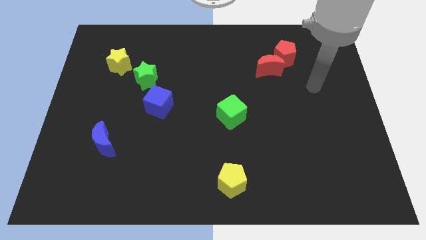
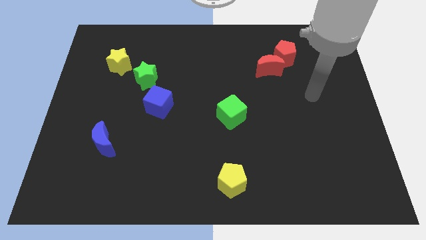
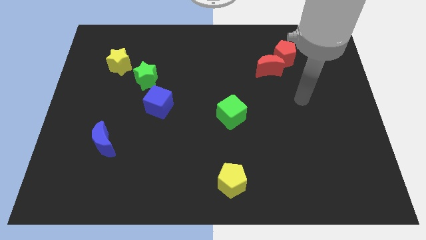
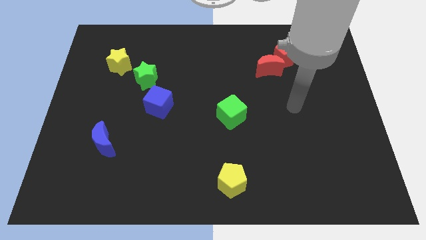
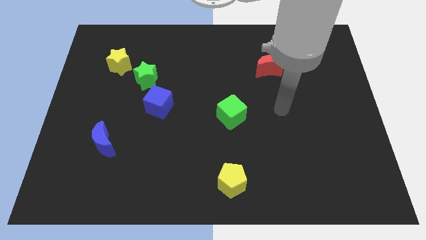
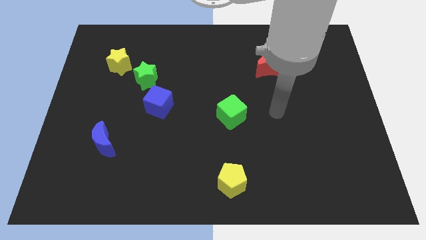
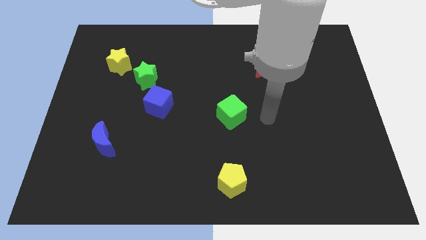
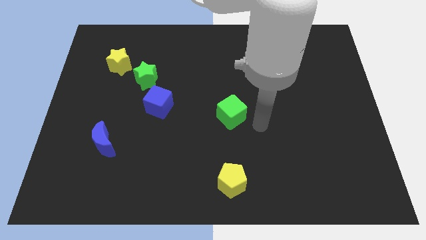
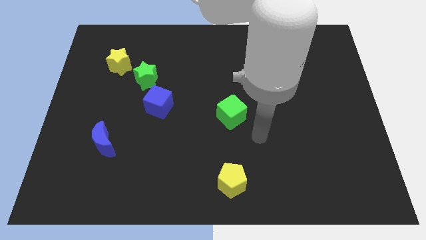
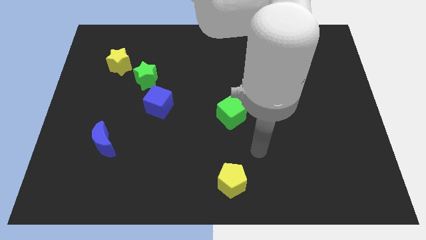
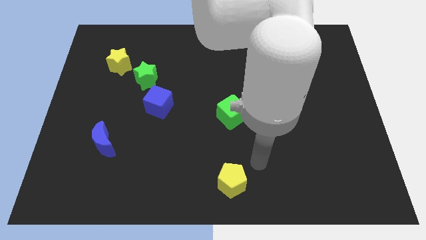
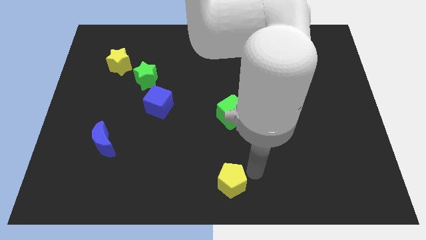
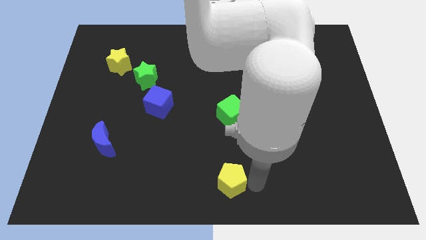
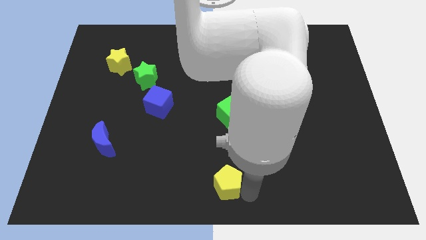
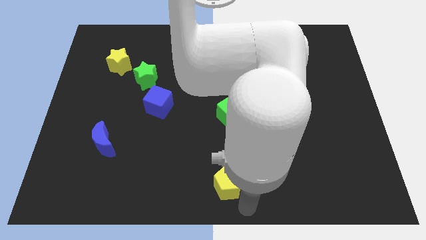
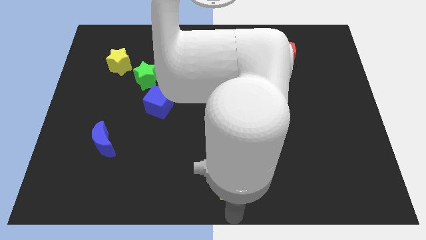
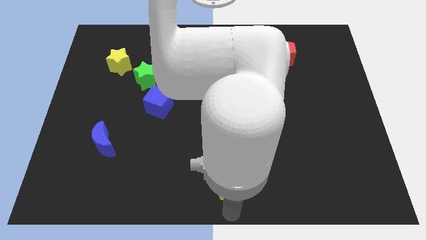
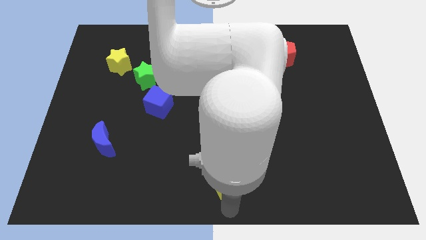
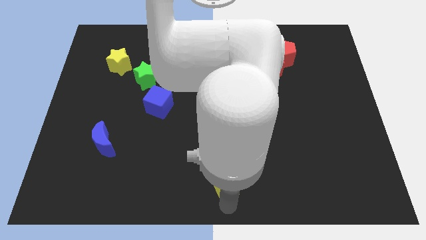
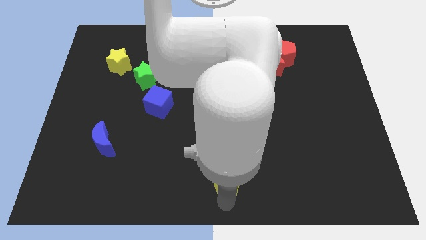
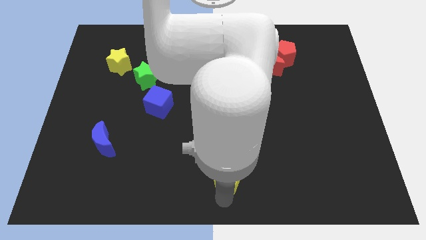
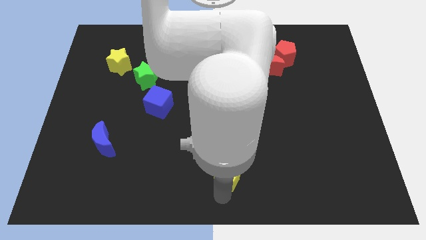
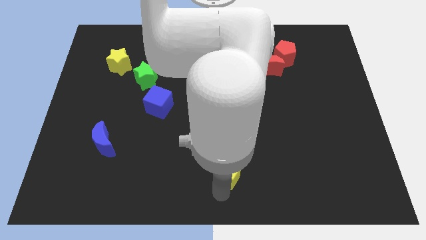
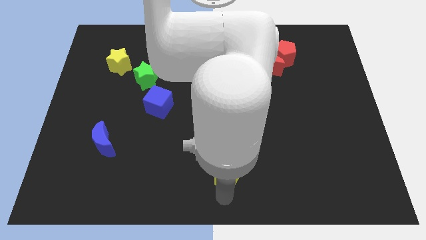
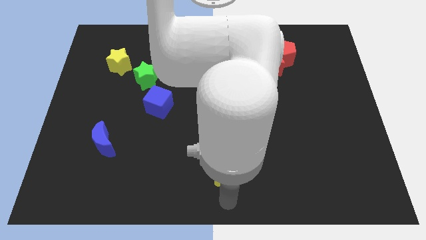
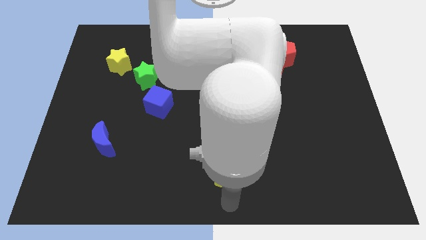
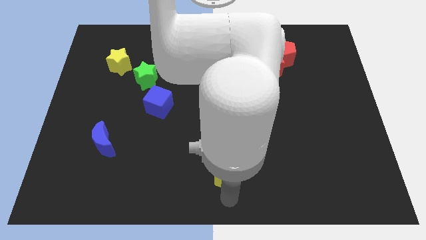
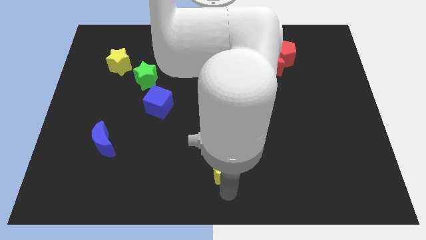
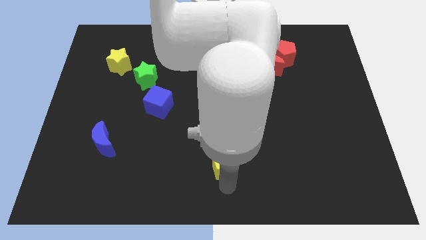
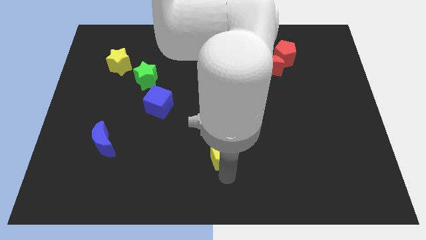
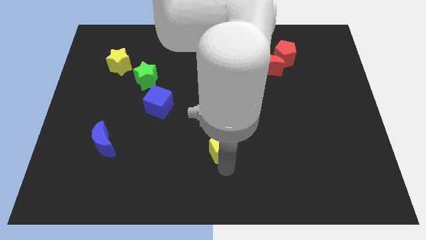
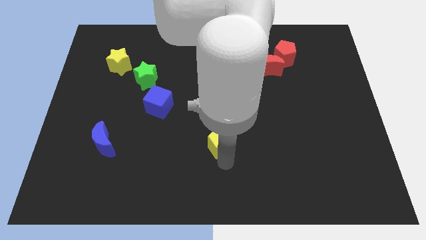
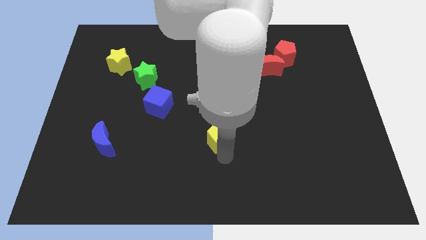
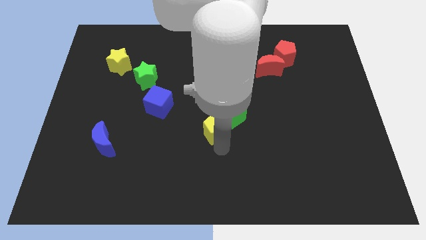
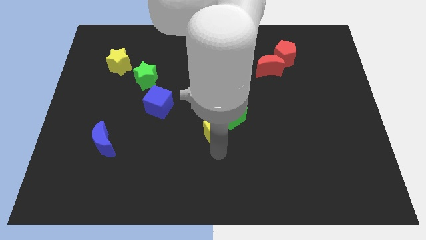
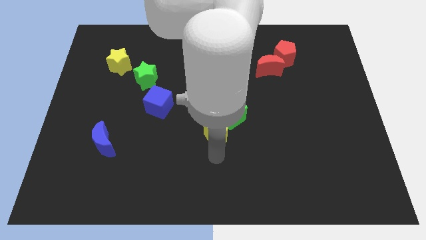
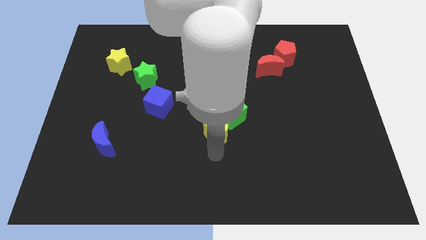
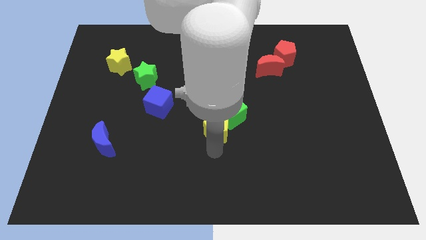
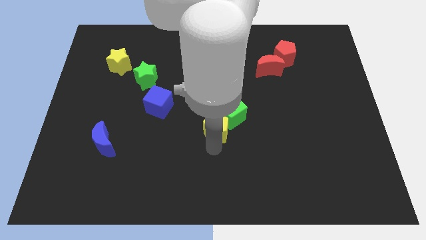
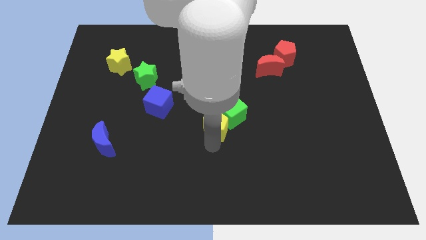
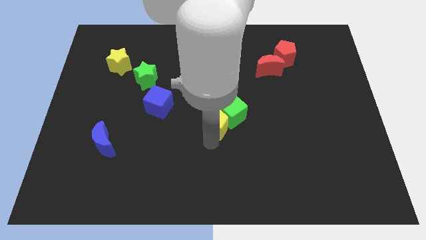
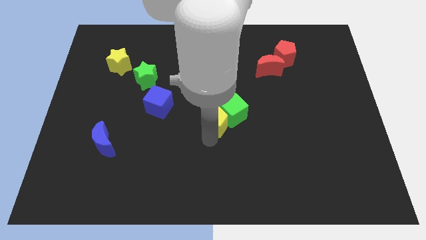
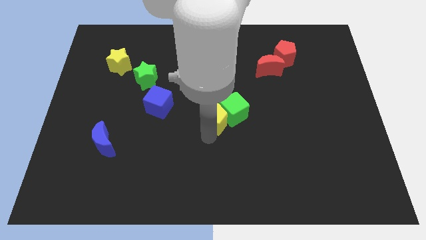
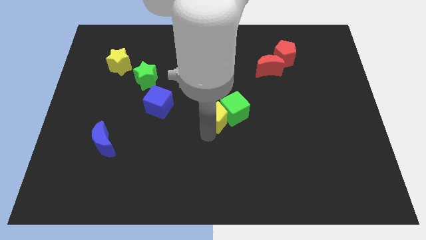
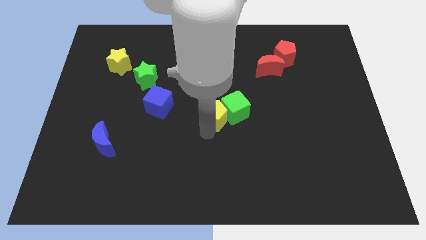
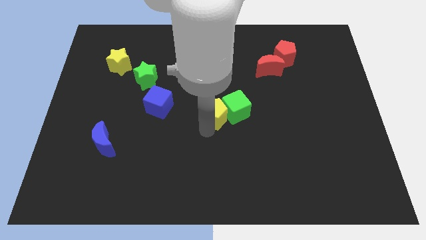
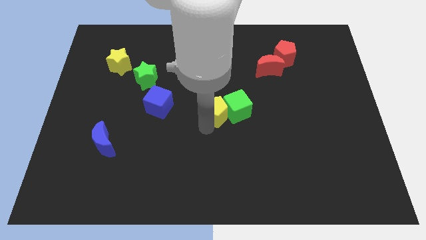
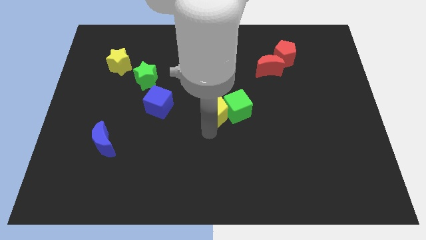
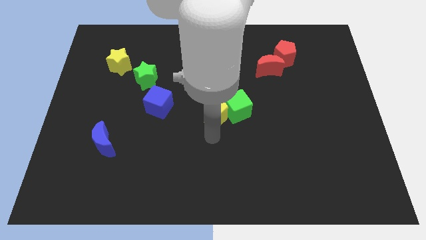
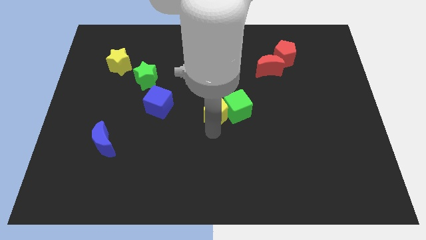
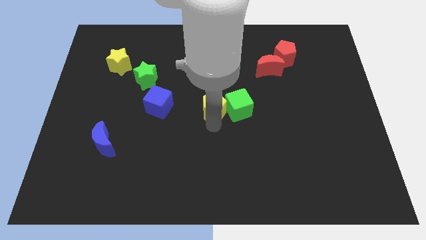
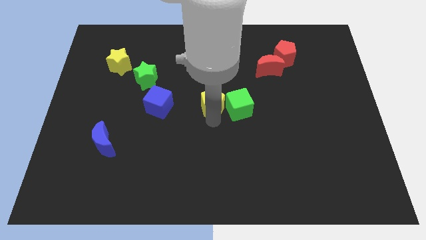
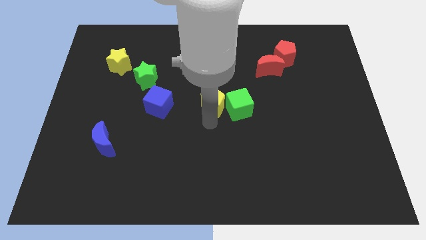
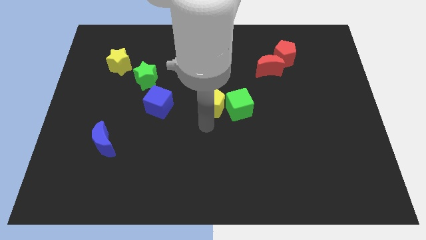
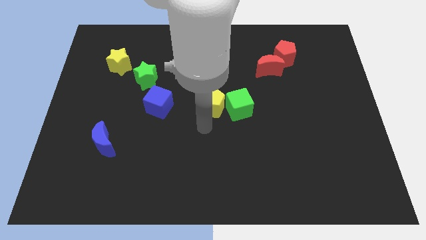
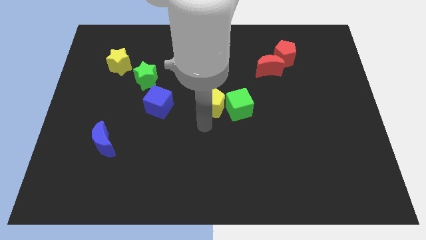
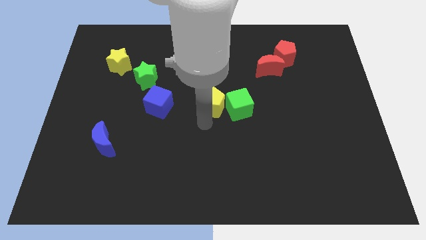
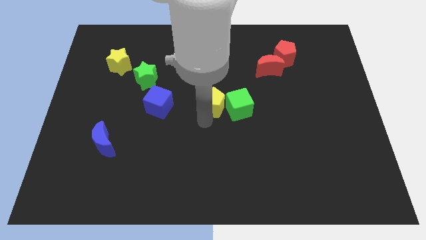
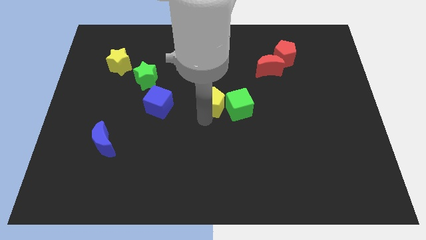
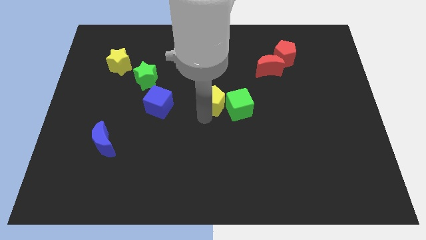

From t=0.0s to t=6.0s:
slide the yellow pentagon upwards

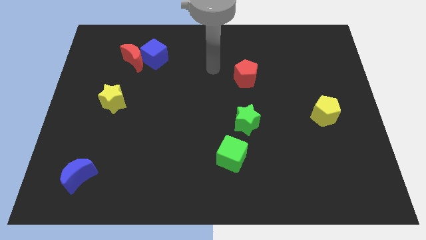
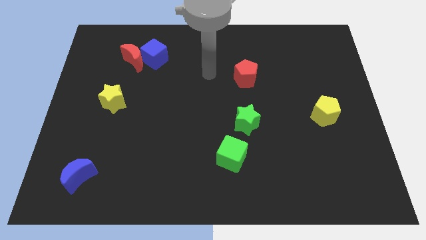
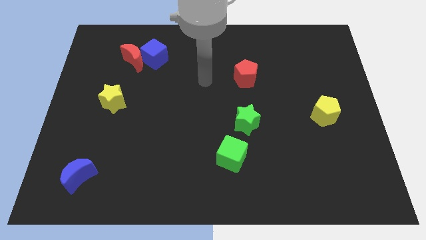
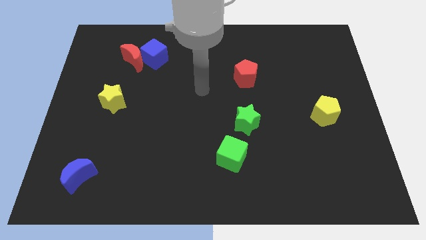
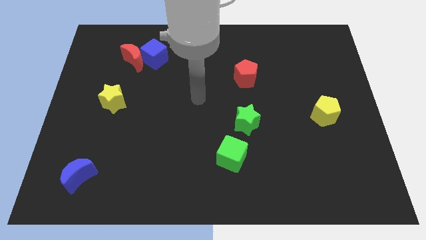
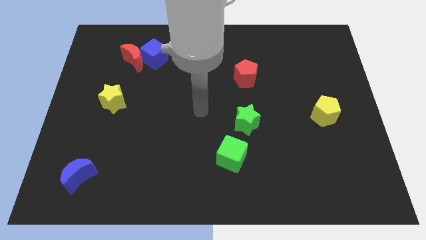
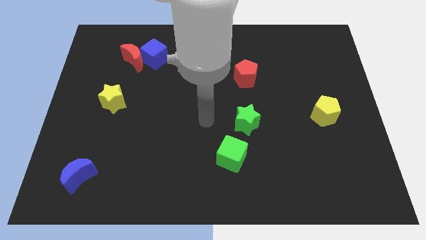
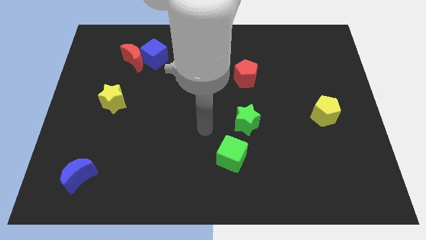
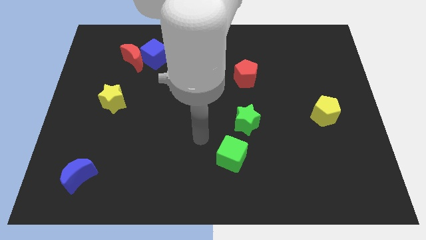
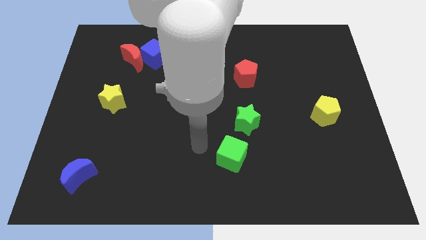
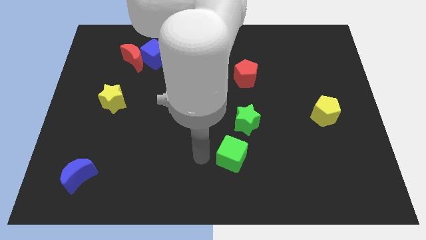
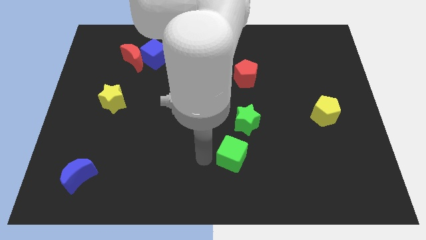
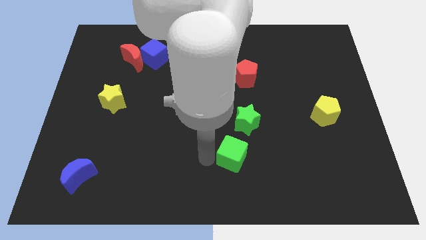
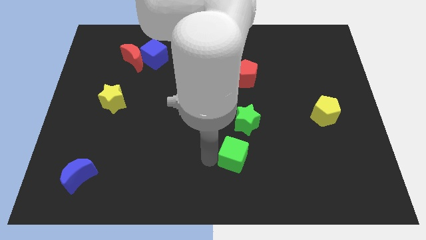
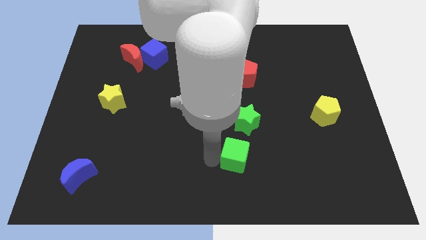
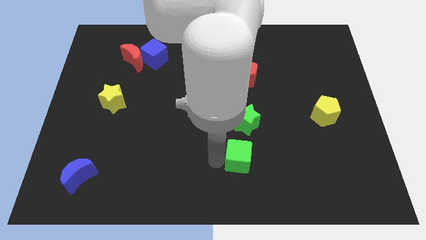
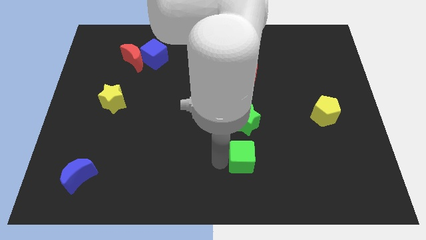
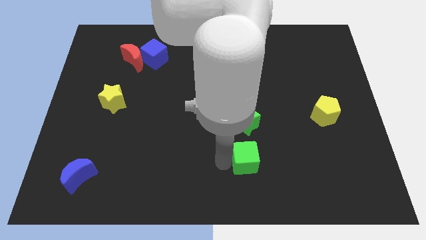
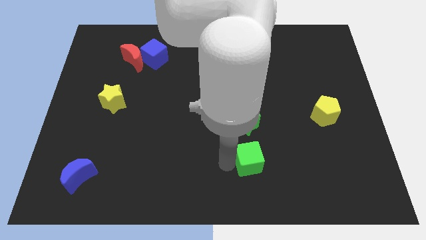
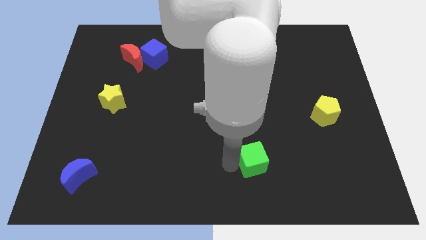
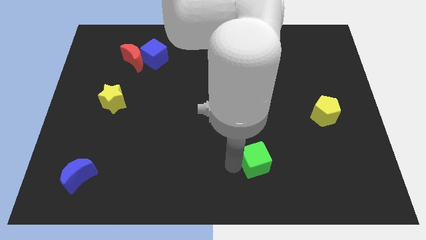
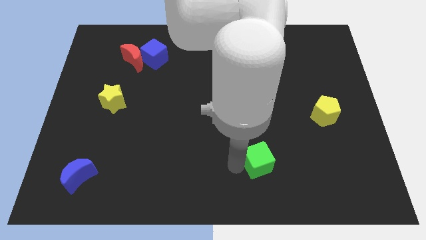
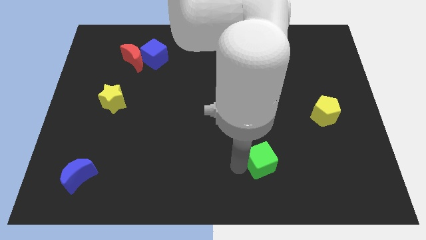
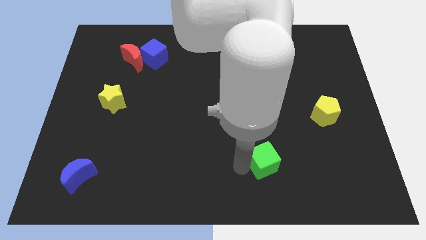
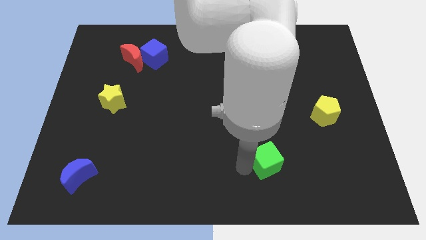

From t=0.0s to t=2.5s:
push the green cube right slightly
